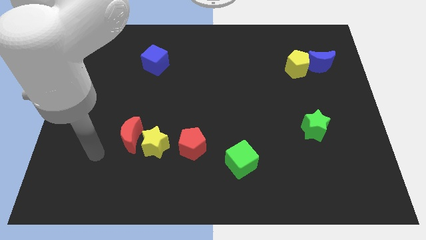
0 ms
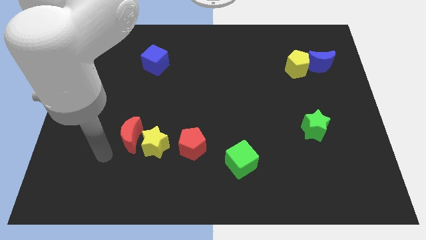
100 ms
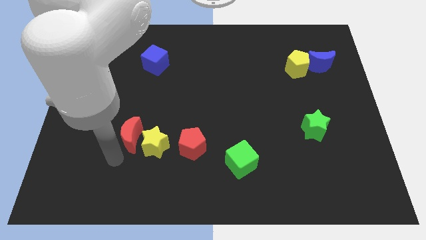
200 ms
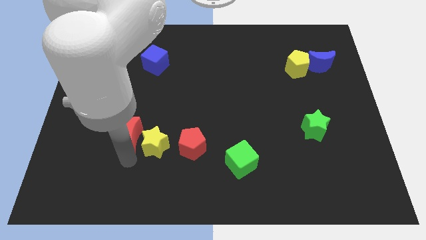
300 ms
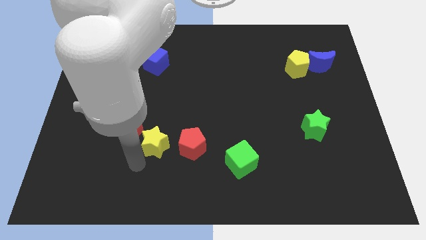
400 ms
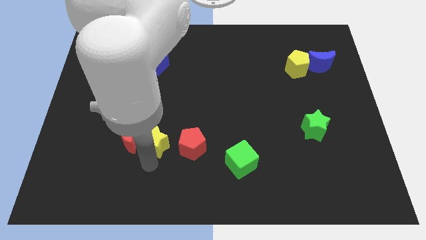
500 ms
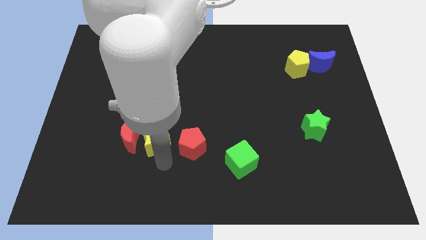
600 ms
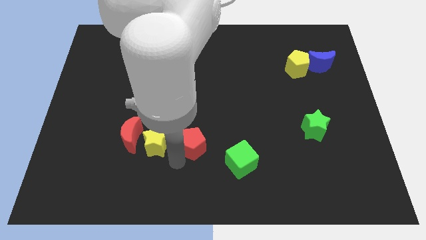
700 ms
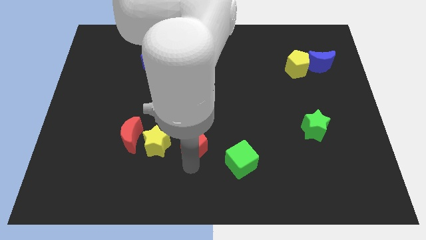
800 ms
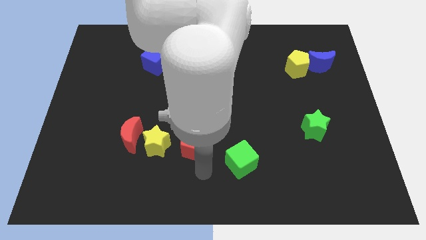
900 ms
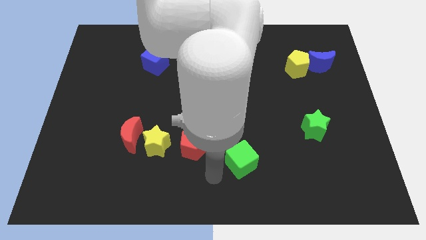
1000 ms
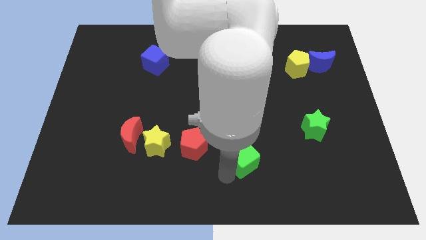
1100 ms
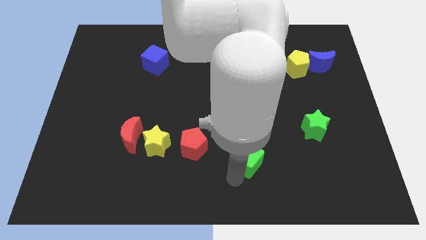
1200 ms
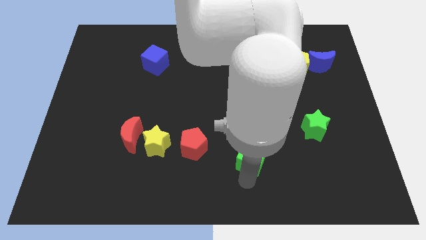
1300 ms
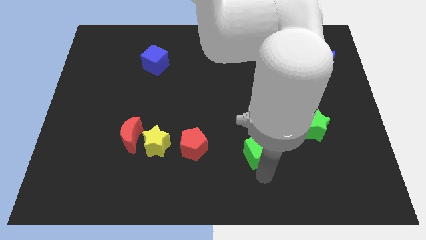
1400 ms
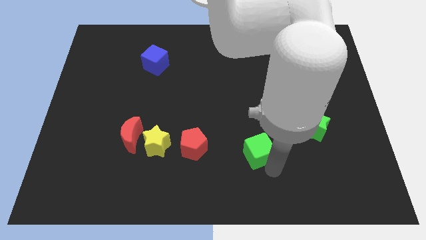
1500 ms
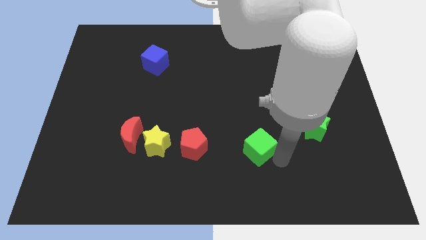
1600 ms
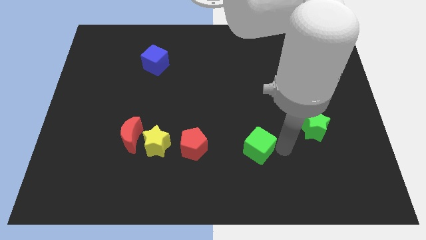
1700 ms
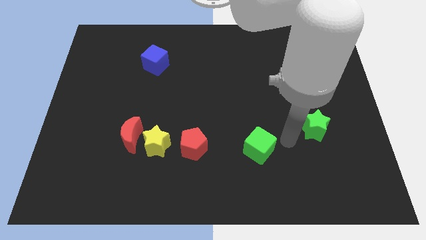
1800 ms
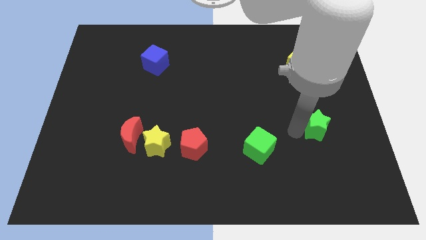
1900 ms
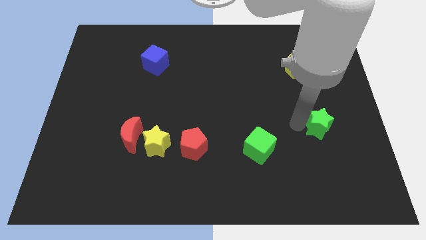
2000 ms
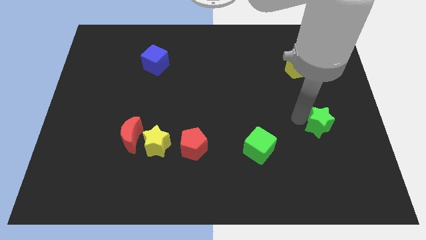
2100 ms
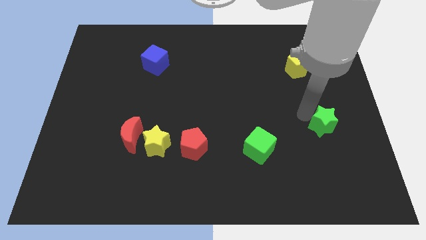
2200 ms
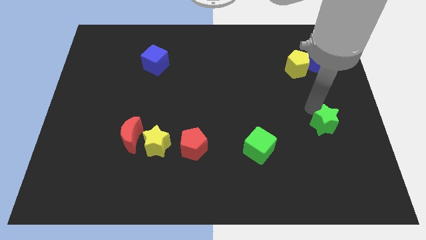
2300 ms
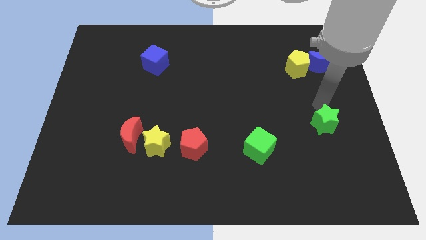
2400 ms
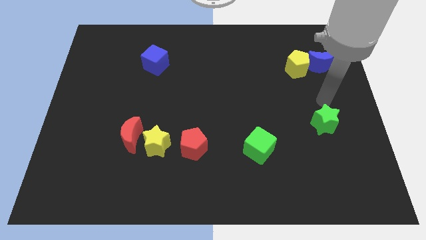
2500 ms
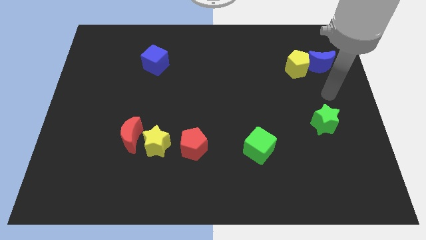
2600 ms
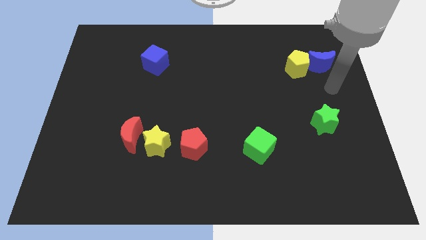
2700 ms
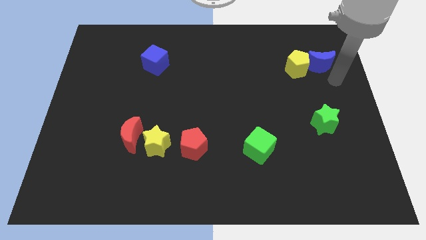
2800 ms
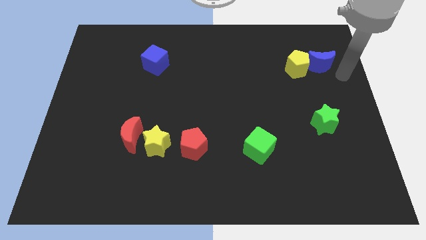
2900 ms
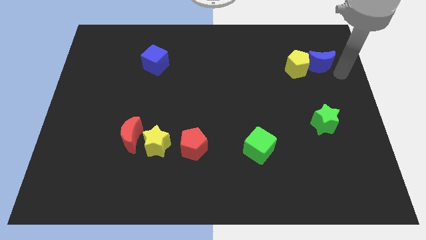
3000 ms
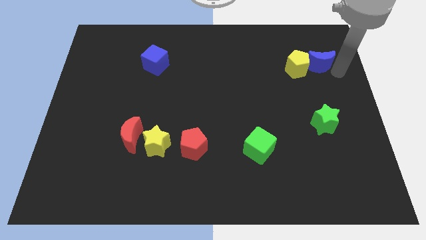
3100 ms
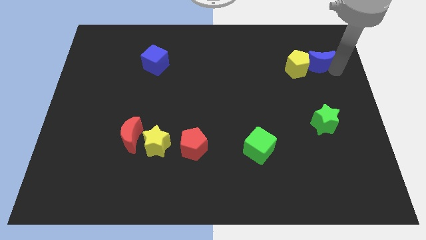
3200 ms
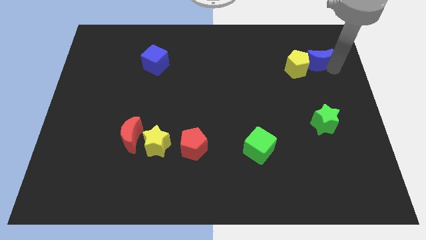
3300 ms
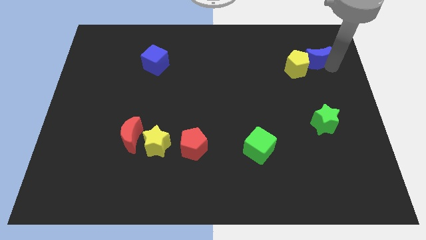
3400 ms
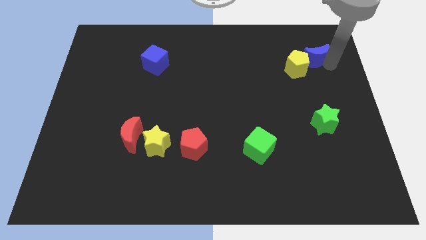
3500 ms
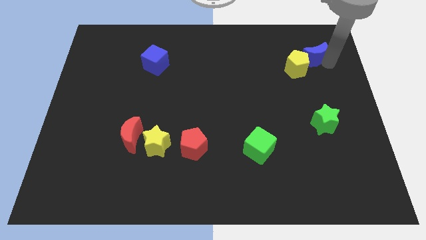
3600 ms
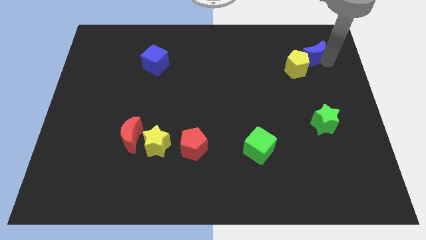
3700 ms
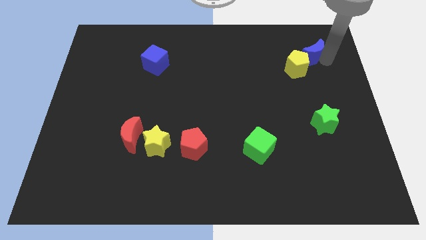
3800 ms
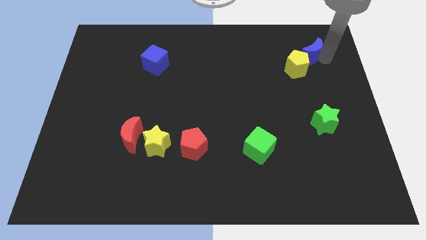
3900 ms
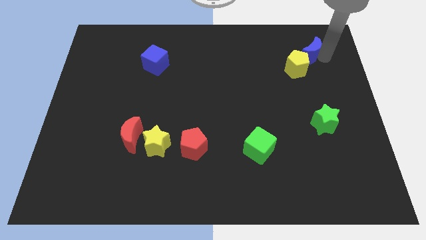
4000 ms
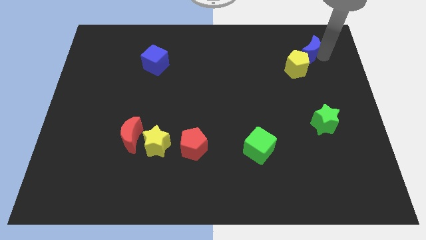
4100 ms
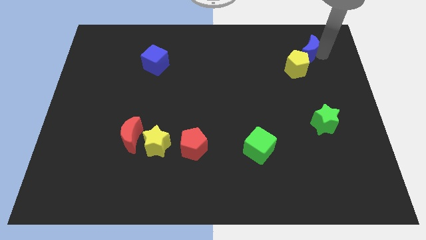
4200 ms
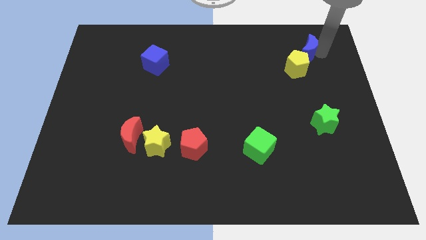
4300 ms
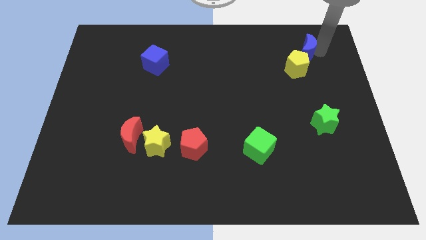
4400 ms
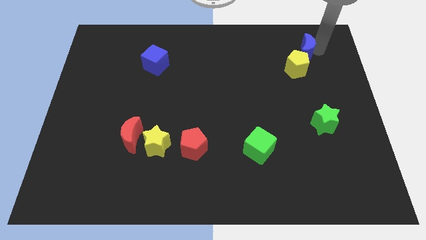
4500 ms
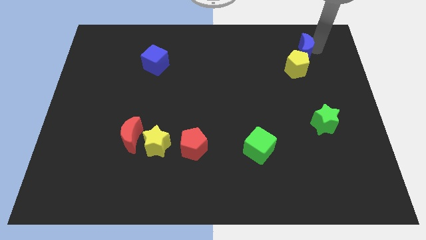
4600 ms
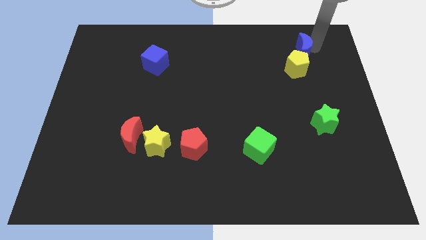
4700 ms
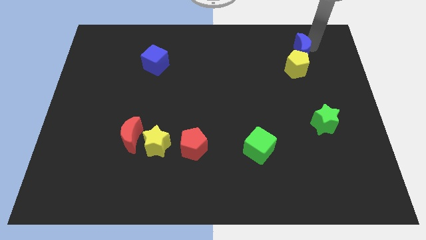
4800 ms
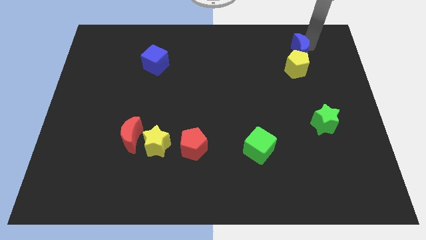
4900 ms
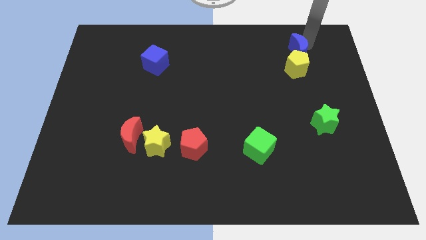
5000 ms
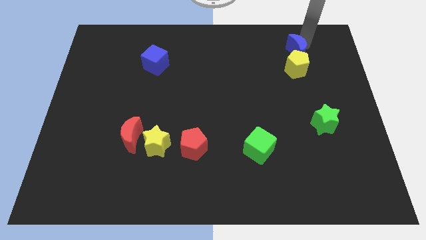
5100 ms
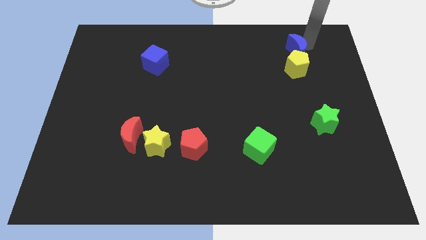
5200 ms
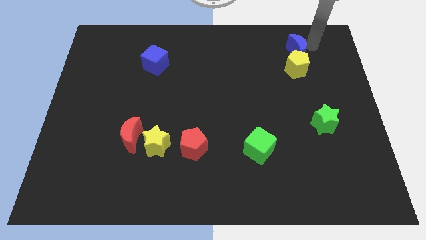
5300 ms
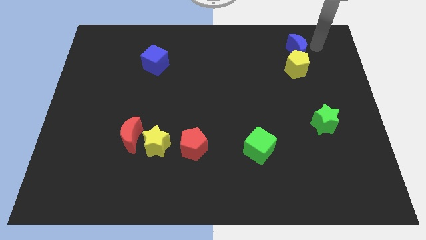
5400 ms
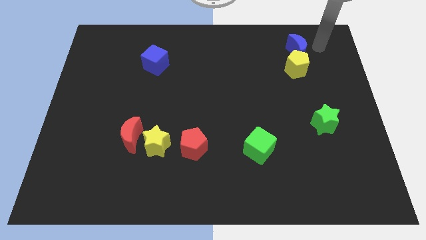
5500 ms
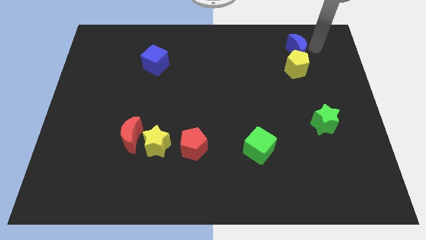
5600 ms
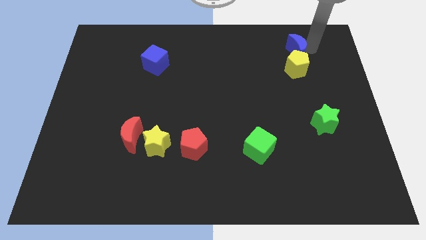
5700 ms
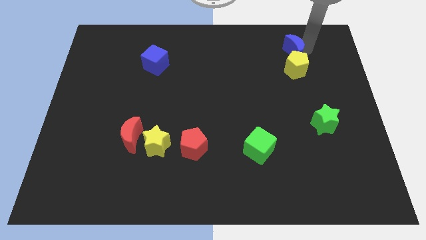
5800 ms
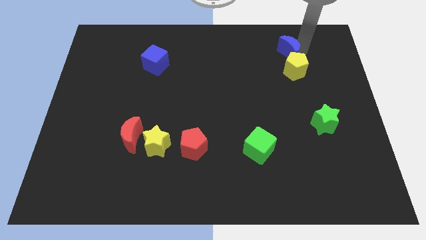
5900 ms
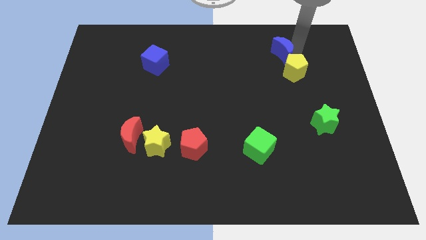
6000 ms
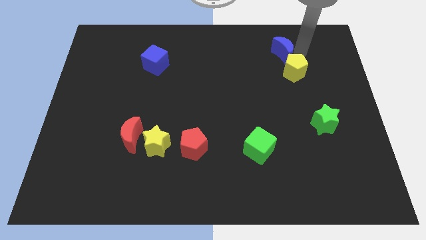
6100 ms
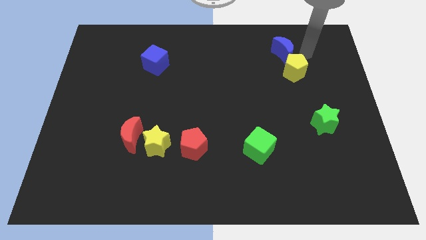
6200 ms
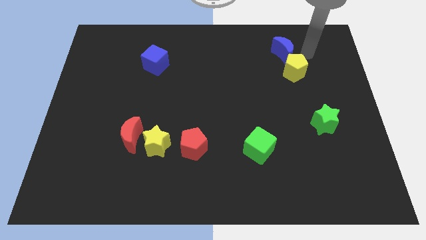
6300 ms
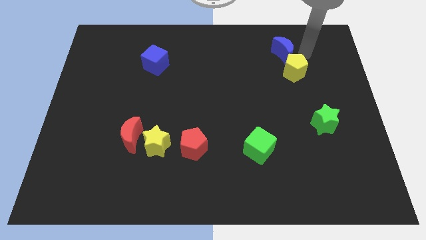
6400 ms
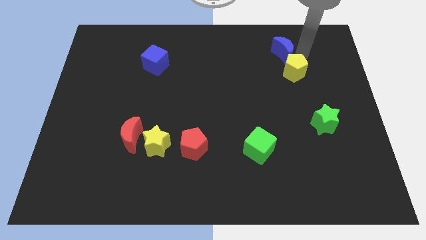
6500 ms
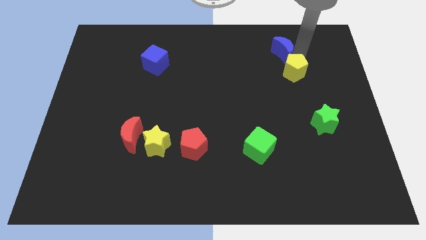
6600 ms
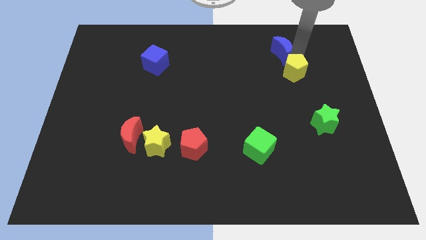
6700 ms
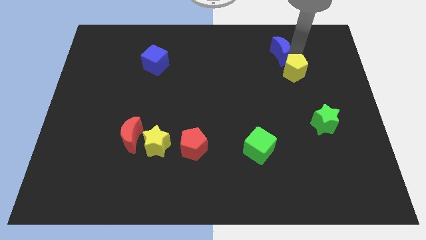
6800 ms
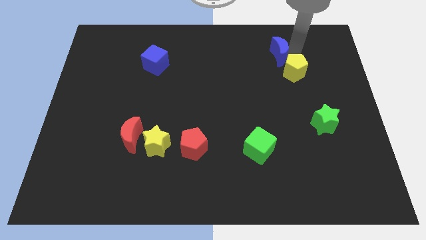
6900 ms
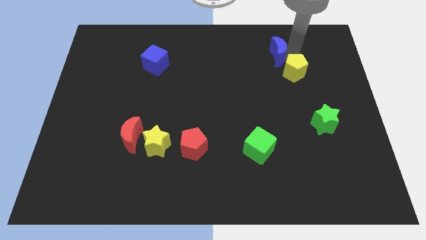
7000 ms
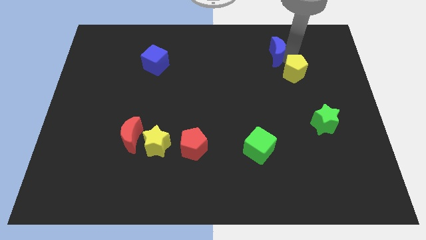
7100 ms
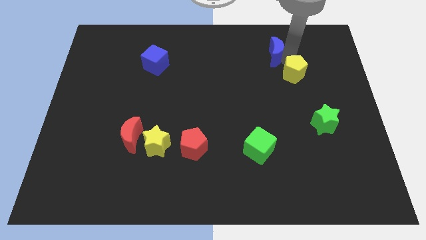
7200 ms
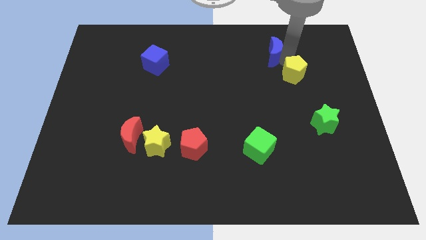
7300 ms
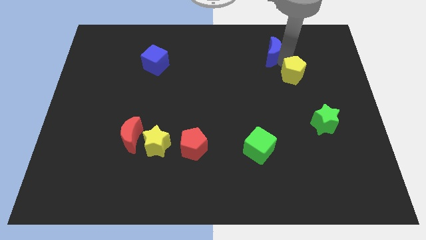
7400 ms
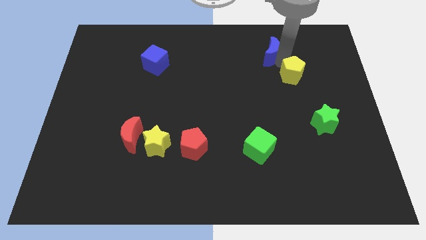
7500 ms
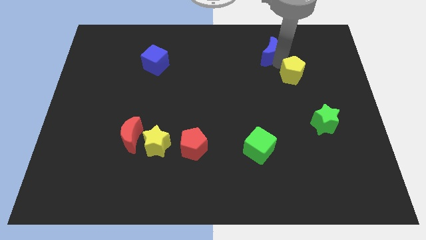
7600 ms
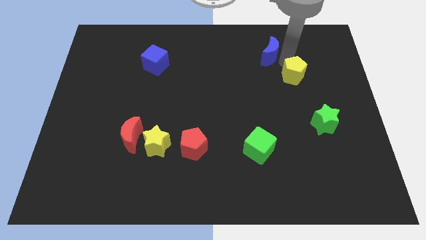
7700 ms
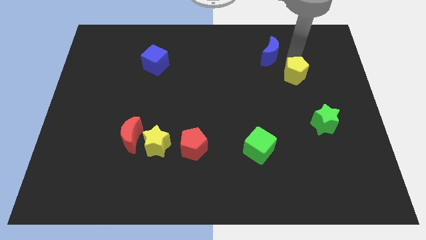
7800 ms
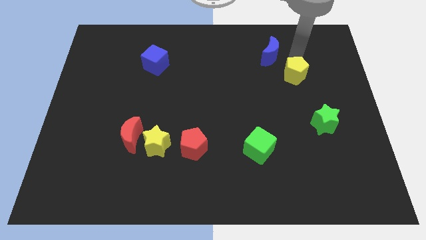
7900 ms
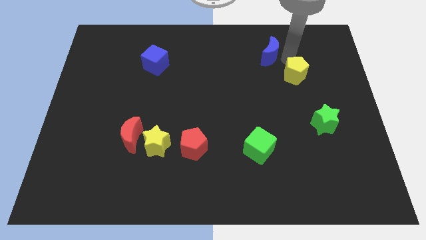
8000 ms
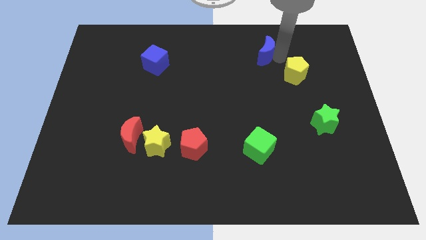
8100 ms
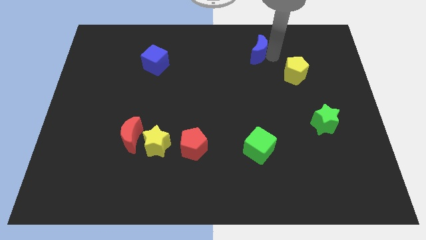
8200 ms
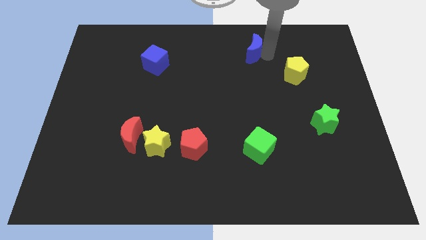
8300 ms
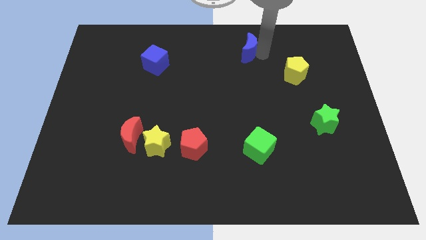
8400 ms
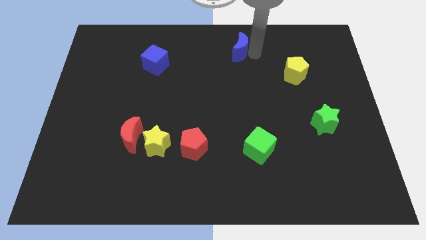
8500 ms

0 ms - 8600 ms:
move the blue moon to the top side
